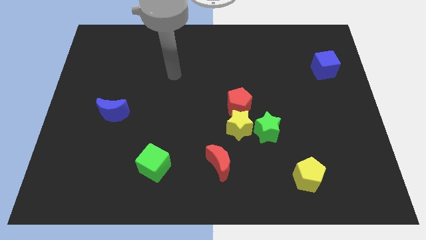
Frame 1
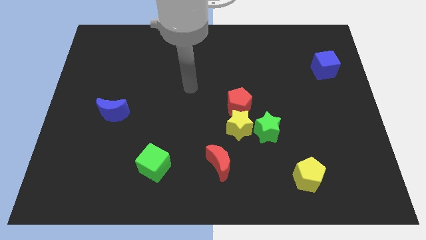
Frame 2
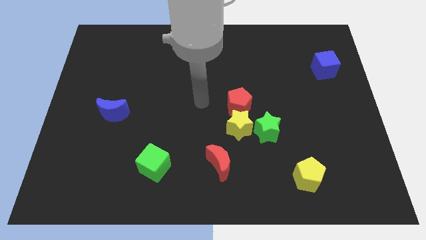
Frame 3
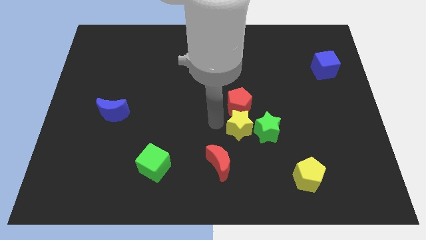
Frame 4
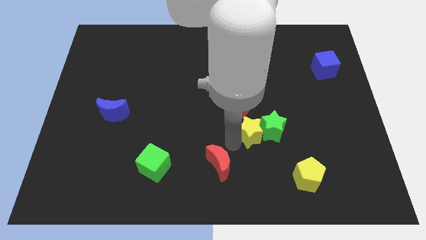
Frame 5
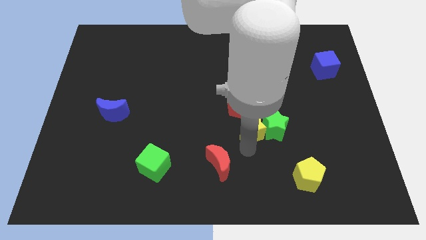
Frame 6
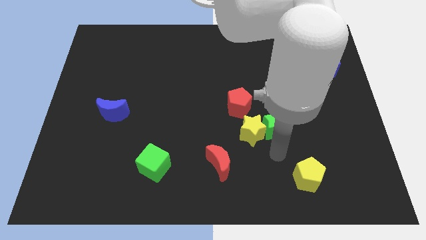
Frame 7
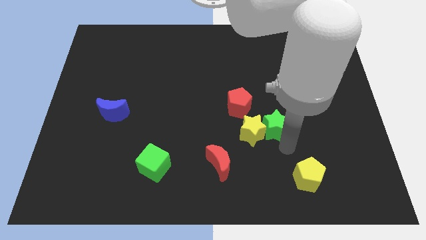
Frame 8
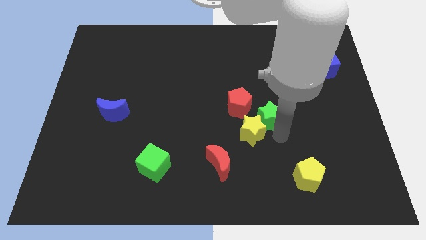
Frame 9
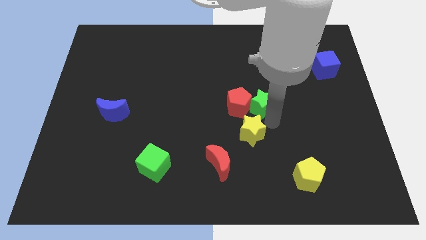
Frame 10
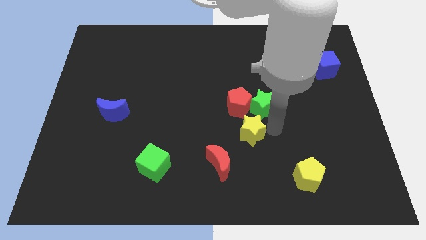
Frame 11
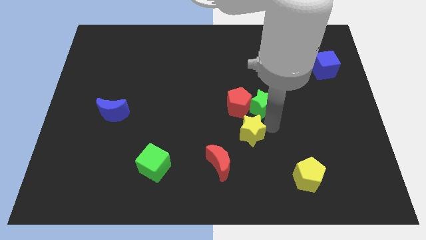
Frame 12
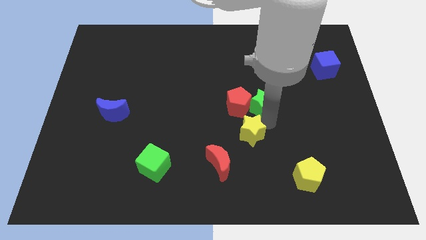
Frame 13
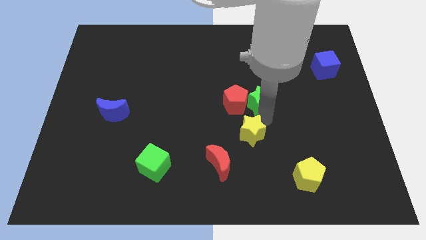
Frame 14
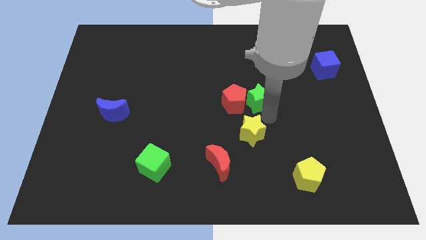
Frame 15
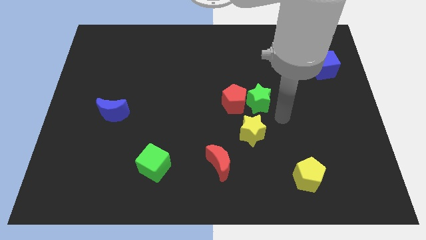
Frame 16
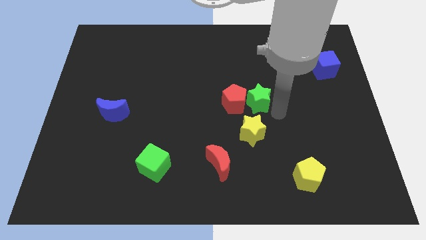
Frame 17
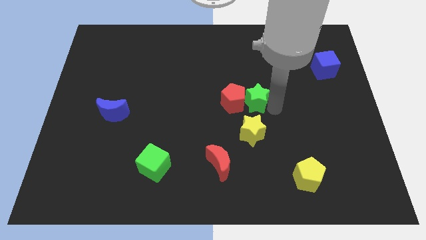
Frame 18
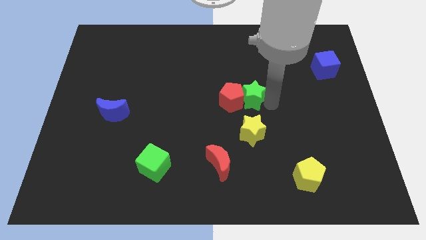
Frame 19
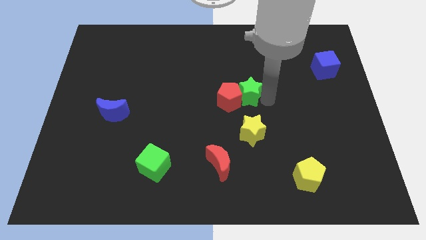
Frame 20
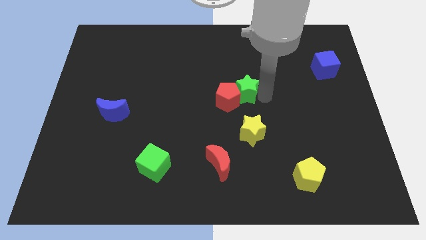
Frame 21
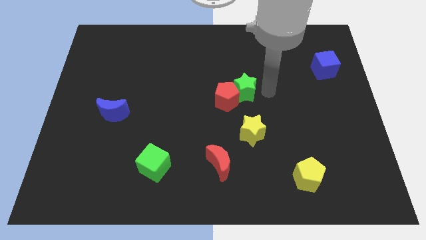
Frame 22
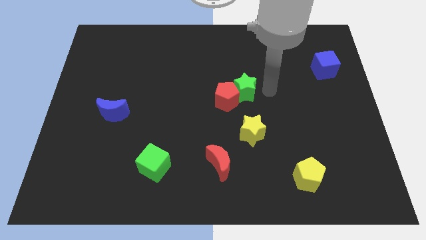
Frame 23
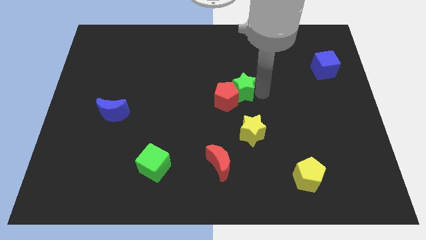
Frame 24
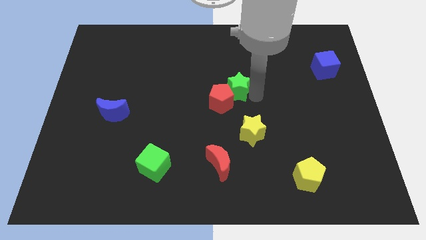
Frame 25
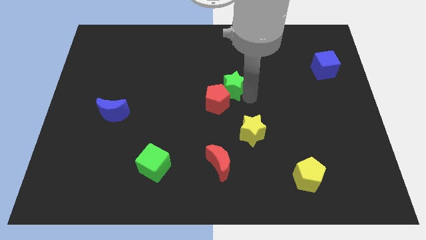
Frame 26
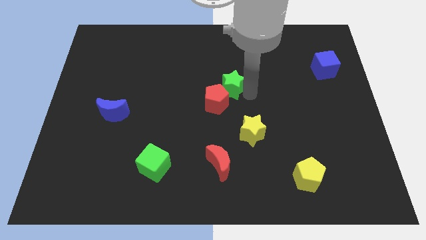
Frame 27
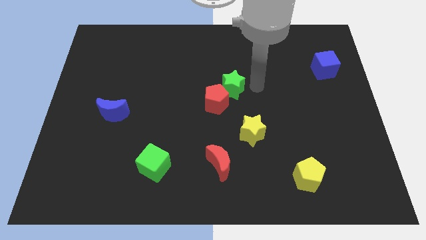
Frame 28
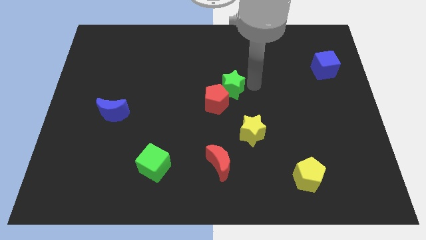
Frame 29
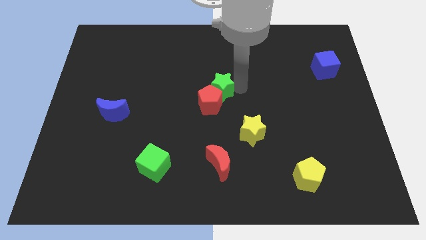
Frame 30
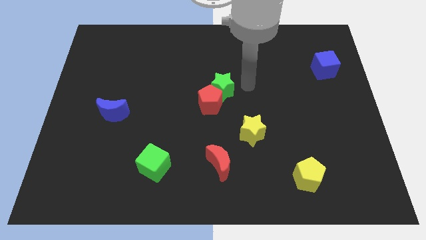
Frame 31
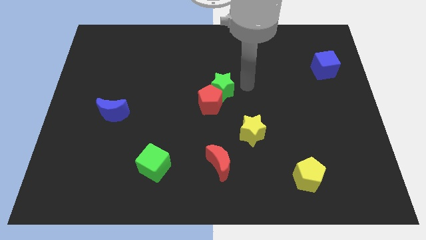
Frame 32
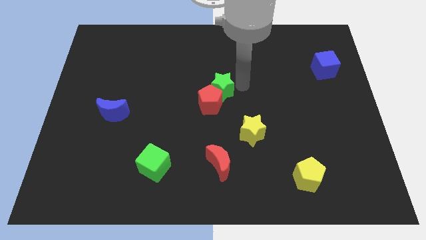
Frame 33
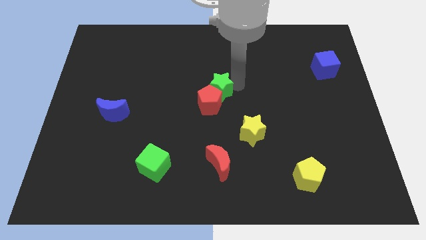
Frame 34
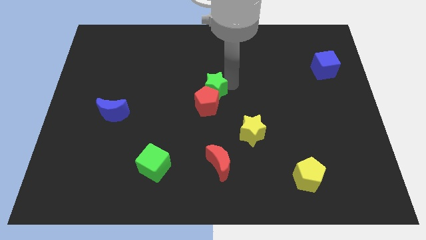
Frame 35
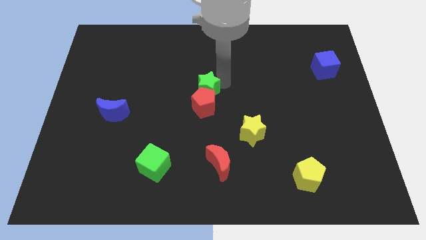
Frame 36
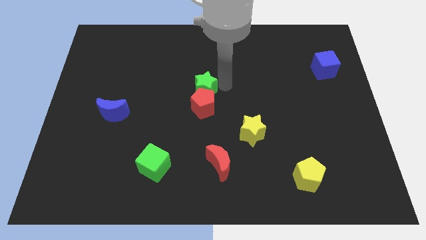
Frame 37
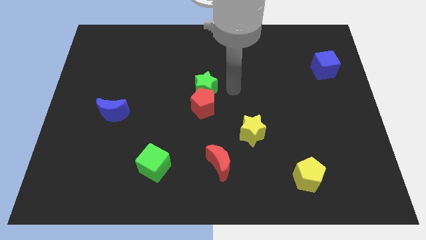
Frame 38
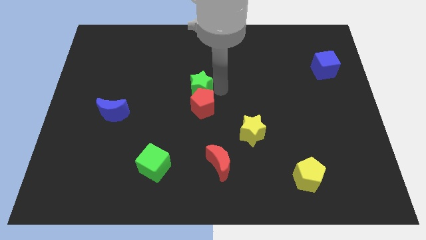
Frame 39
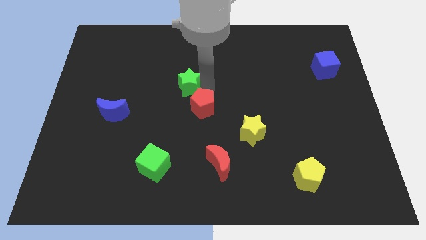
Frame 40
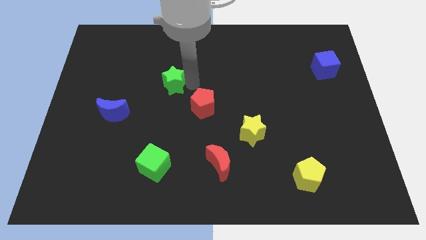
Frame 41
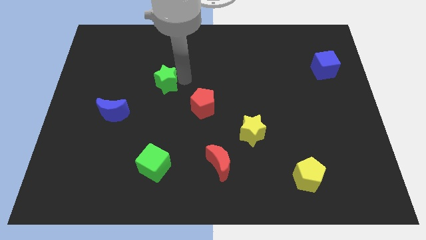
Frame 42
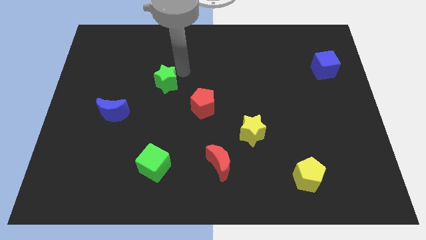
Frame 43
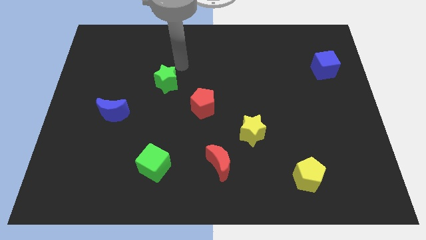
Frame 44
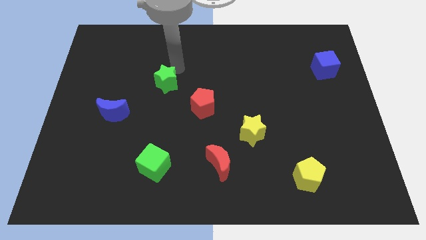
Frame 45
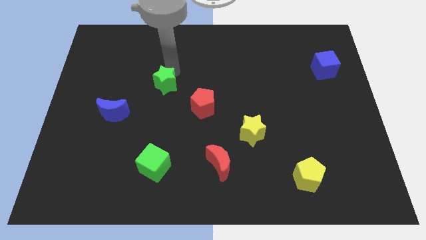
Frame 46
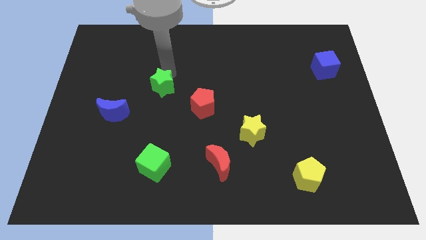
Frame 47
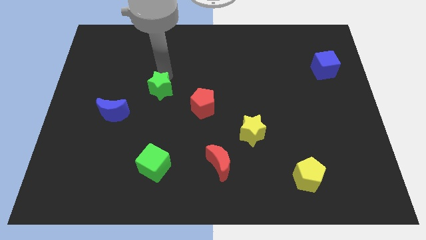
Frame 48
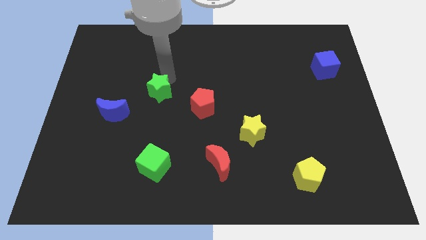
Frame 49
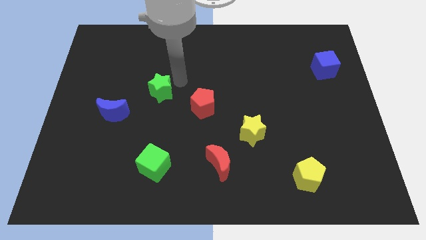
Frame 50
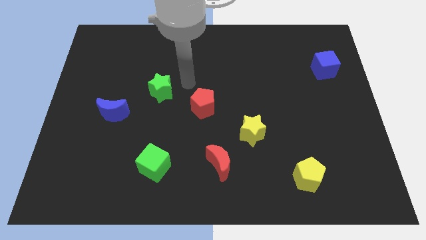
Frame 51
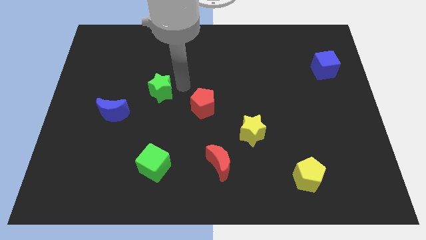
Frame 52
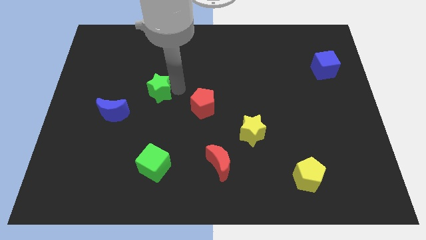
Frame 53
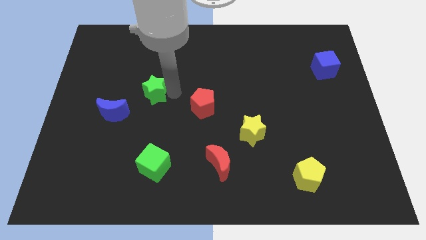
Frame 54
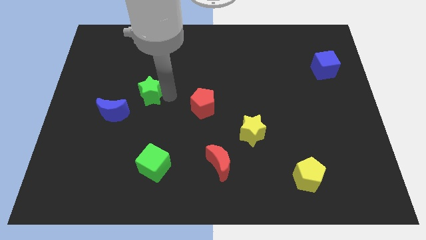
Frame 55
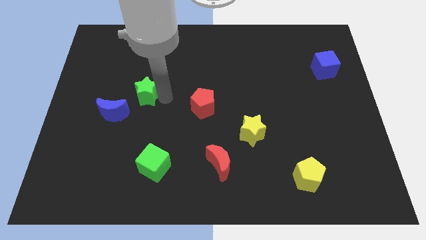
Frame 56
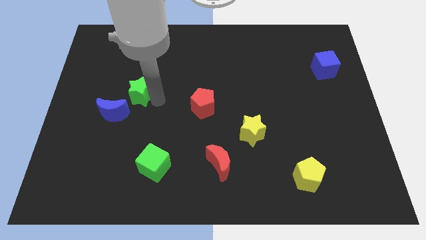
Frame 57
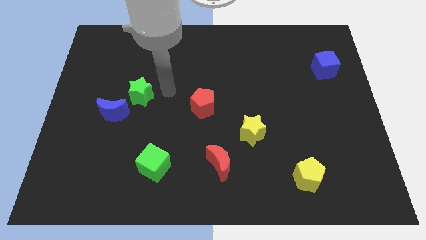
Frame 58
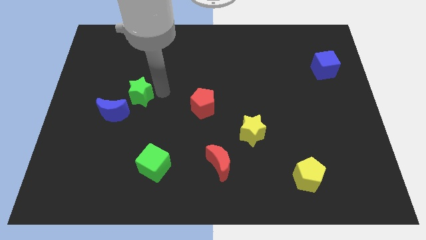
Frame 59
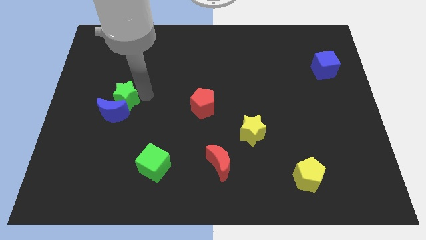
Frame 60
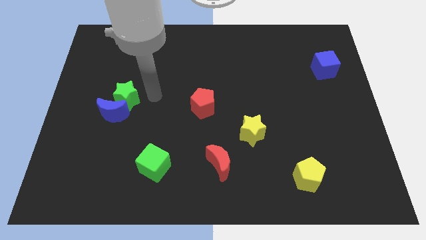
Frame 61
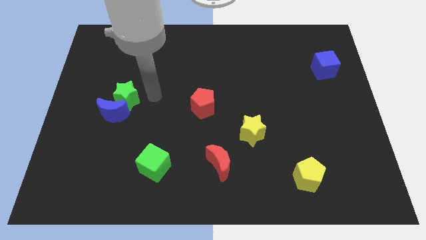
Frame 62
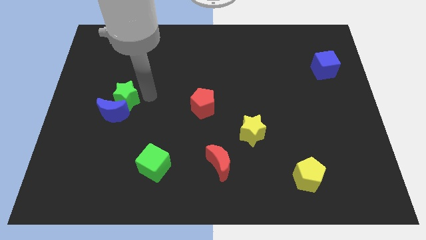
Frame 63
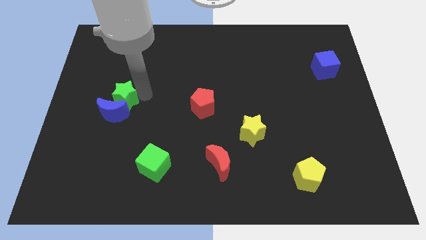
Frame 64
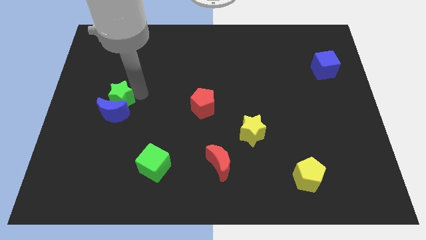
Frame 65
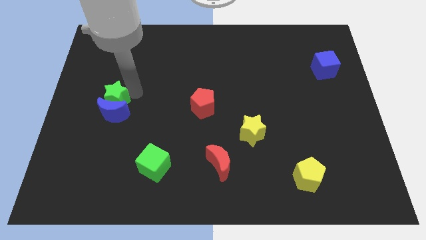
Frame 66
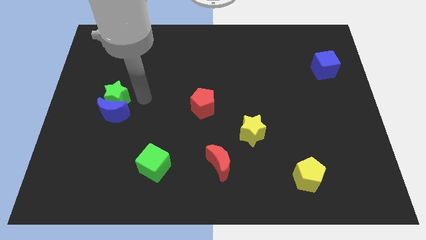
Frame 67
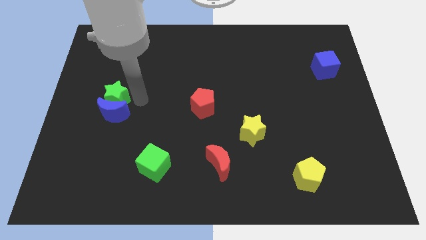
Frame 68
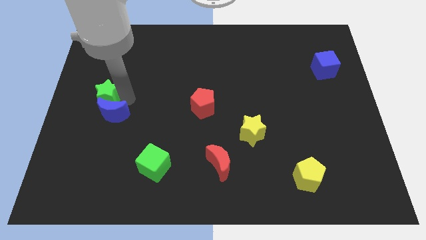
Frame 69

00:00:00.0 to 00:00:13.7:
slide the green star to the left side
